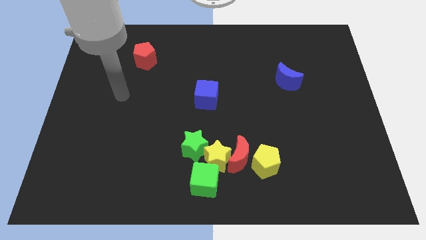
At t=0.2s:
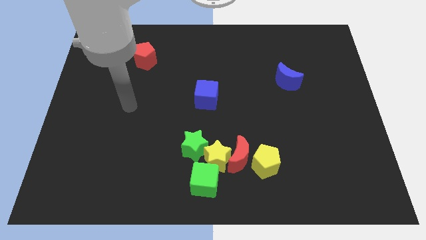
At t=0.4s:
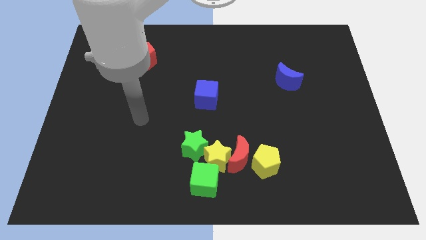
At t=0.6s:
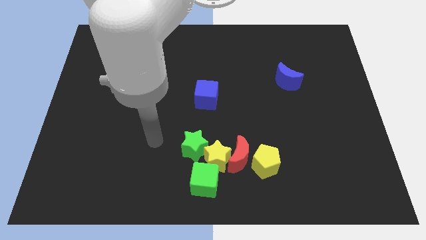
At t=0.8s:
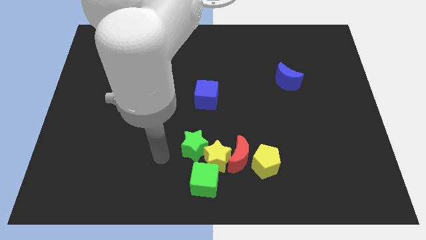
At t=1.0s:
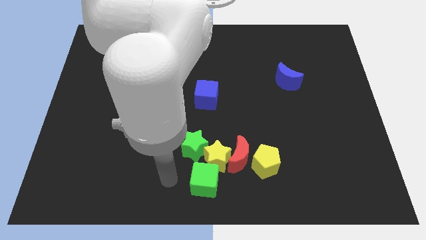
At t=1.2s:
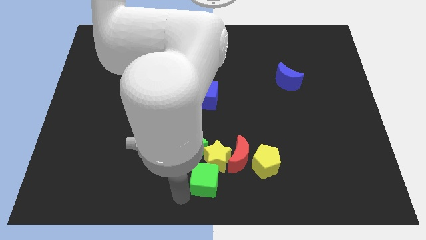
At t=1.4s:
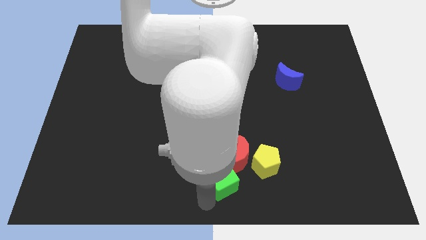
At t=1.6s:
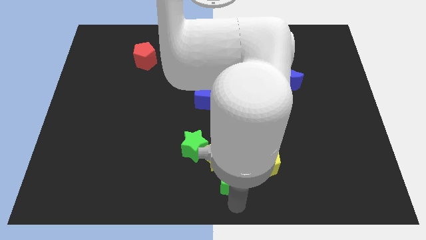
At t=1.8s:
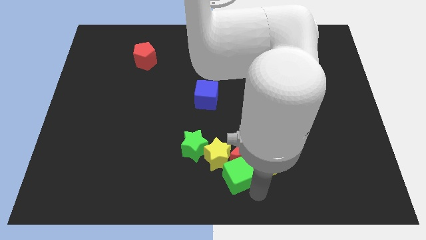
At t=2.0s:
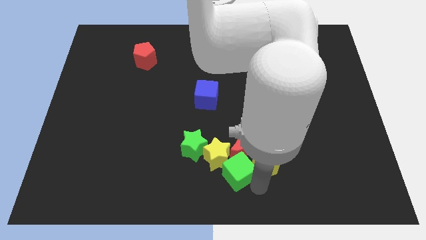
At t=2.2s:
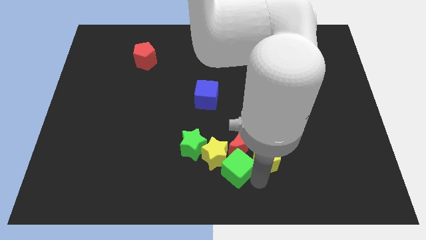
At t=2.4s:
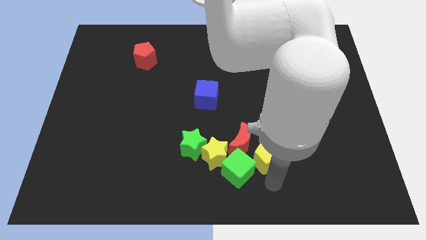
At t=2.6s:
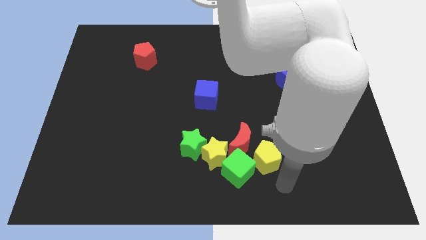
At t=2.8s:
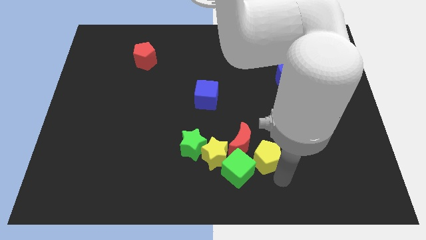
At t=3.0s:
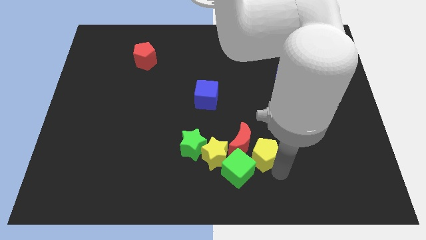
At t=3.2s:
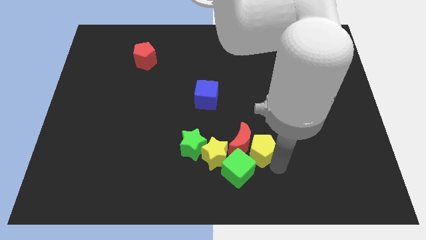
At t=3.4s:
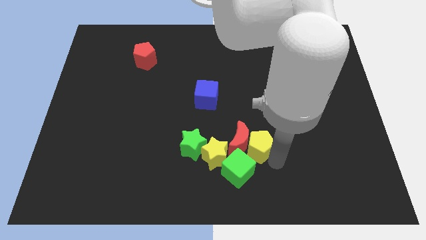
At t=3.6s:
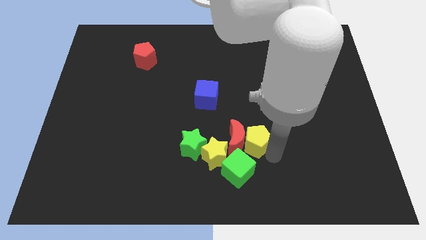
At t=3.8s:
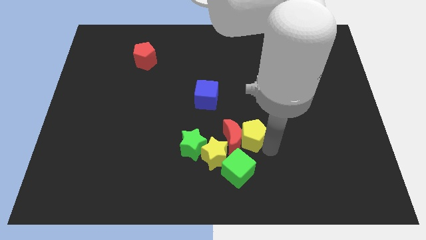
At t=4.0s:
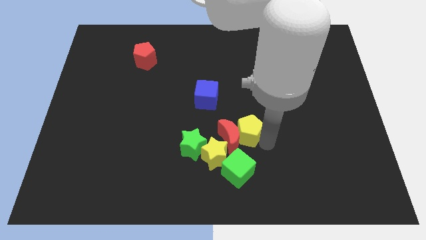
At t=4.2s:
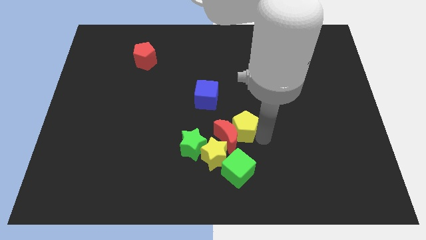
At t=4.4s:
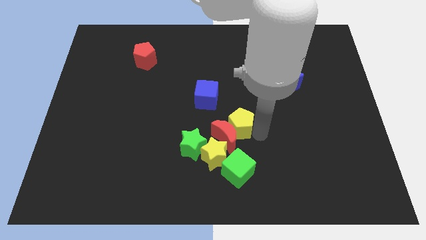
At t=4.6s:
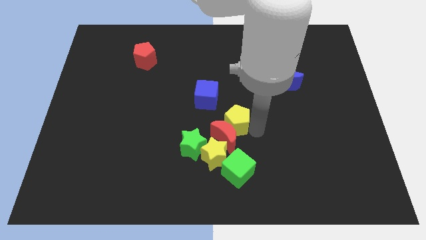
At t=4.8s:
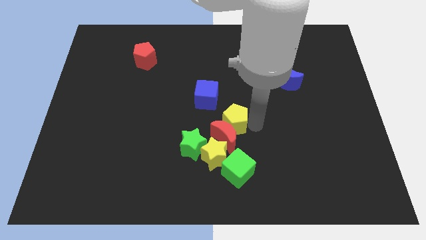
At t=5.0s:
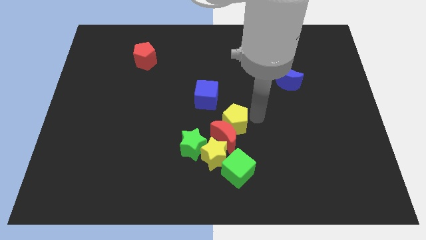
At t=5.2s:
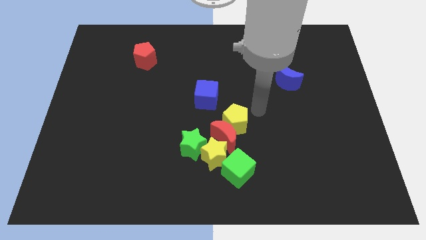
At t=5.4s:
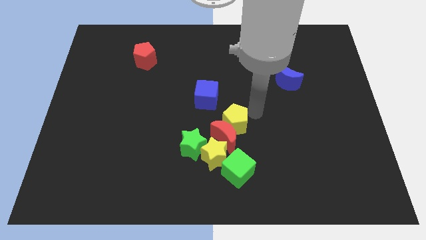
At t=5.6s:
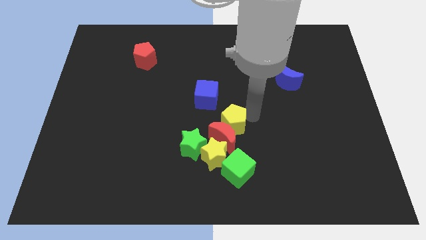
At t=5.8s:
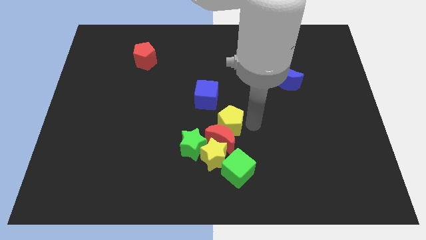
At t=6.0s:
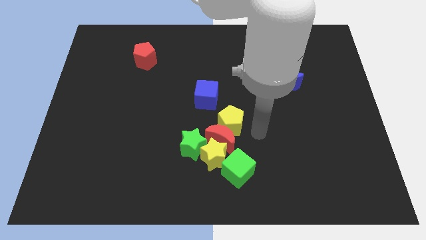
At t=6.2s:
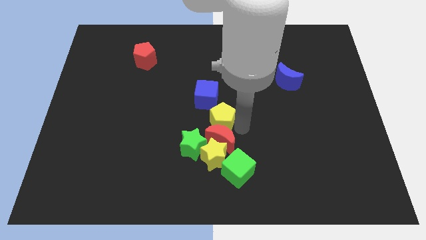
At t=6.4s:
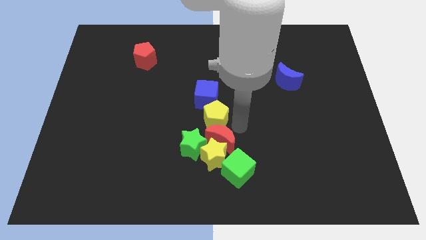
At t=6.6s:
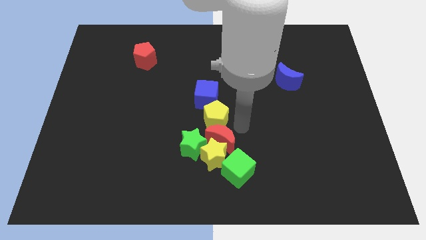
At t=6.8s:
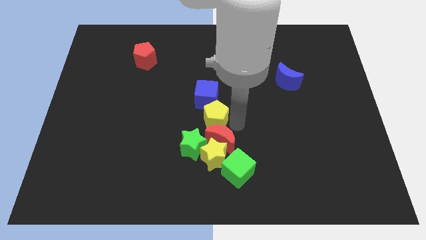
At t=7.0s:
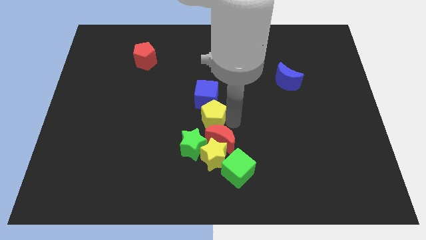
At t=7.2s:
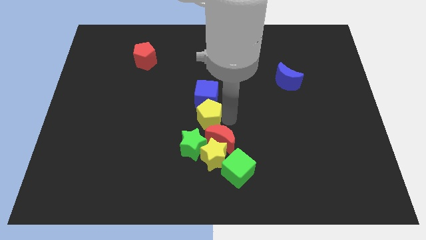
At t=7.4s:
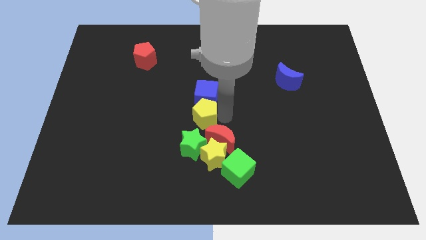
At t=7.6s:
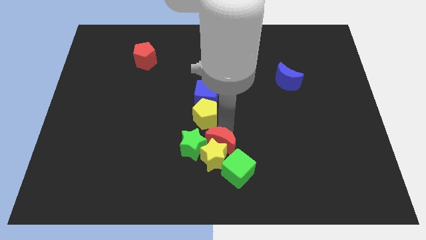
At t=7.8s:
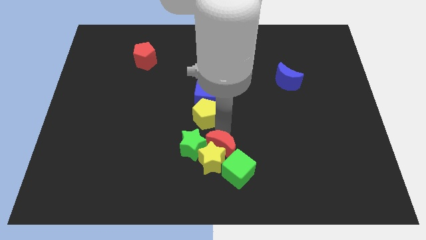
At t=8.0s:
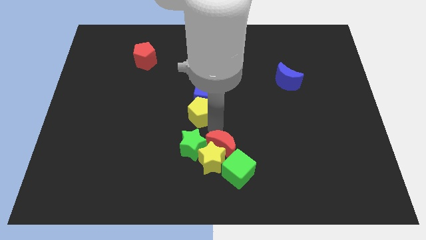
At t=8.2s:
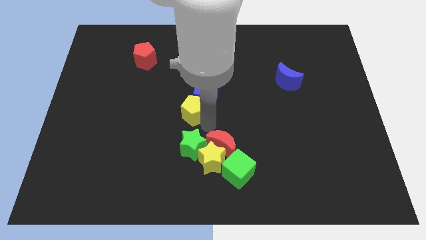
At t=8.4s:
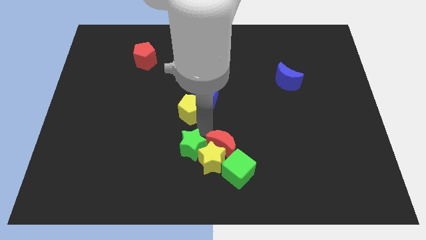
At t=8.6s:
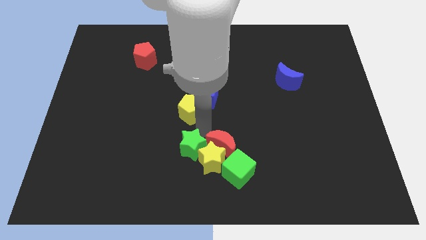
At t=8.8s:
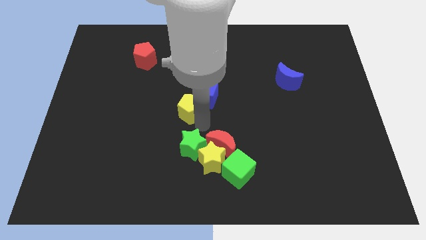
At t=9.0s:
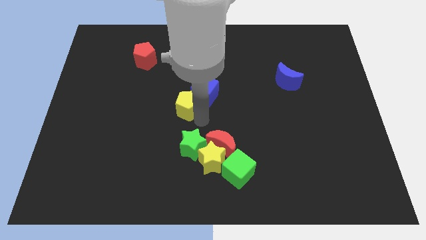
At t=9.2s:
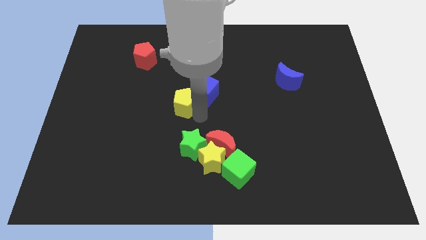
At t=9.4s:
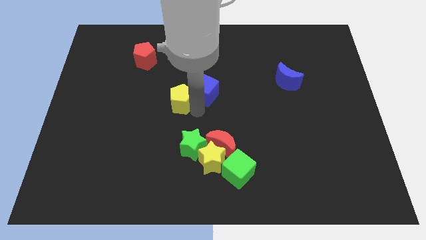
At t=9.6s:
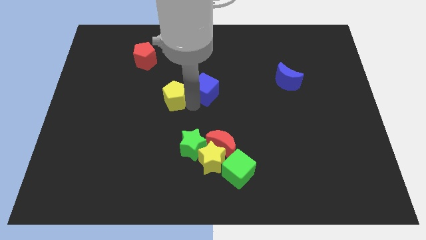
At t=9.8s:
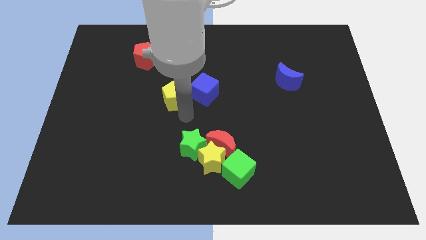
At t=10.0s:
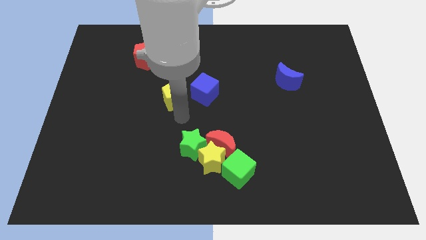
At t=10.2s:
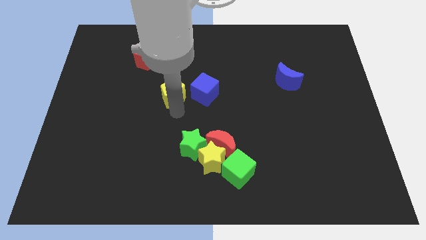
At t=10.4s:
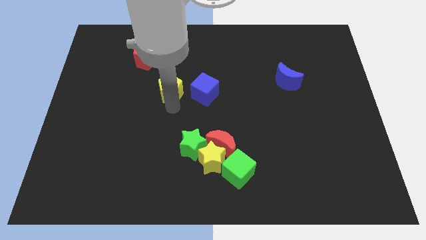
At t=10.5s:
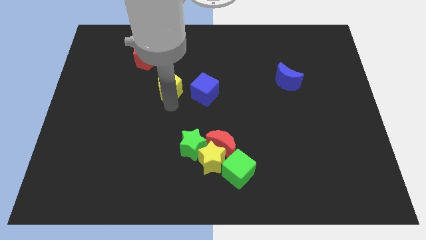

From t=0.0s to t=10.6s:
move the yellow pentagon diagonally down and to the right of the red pentagon

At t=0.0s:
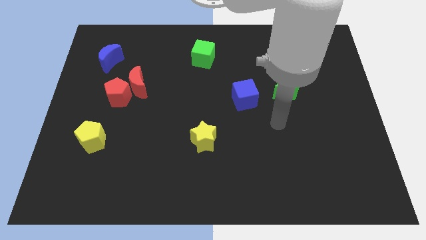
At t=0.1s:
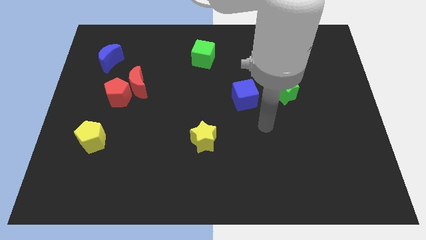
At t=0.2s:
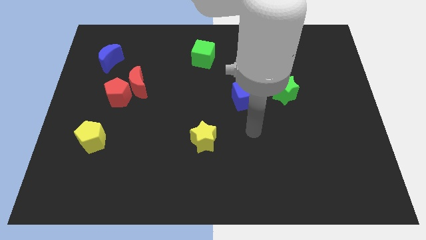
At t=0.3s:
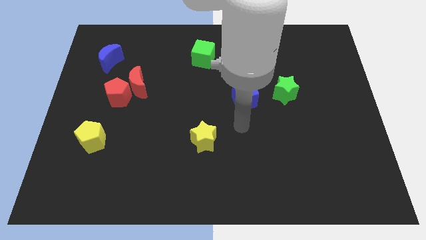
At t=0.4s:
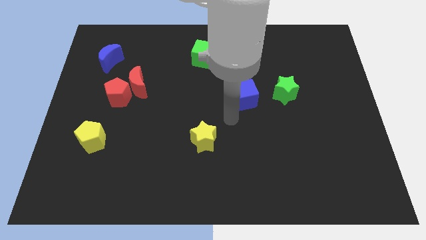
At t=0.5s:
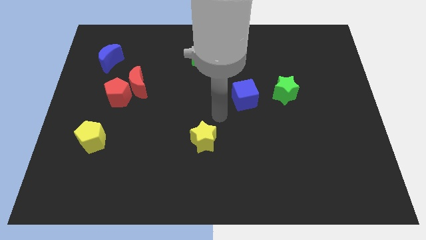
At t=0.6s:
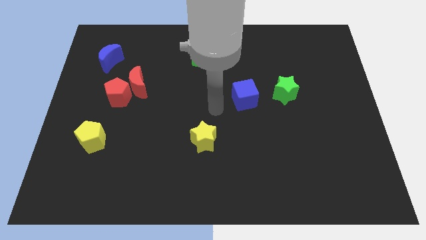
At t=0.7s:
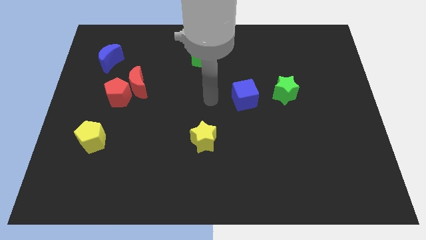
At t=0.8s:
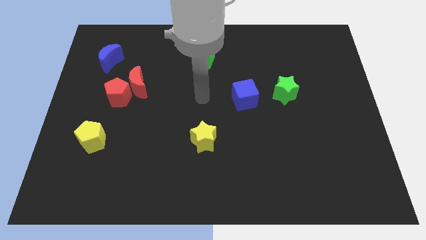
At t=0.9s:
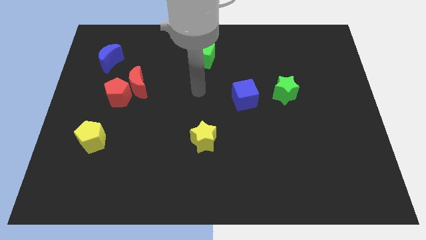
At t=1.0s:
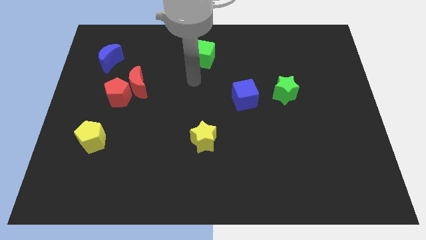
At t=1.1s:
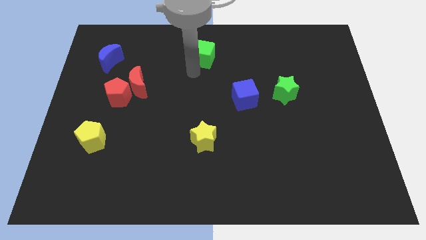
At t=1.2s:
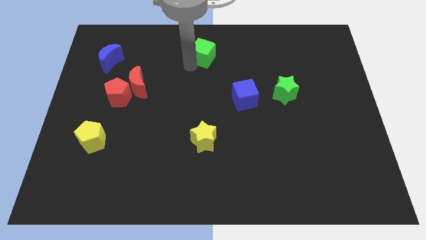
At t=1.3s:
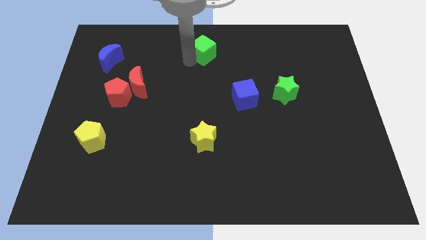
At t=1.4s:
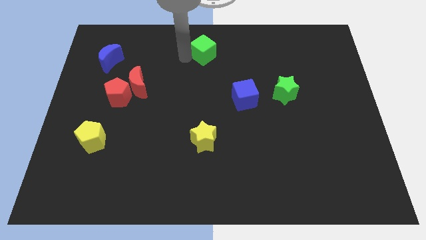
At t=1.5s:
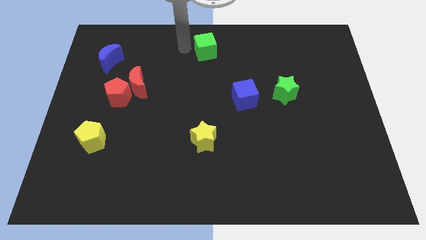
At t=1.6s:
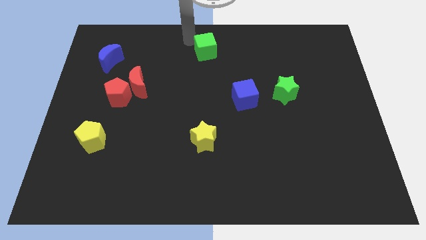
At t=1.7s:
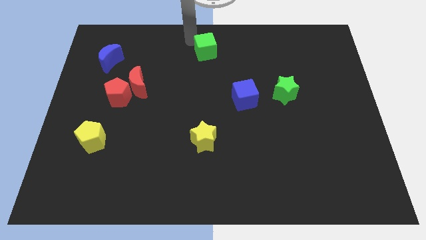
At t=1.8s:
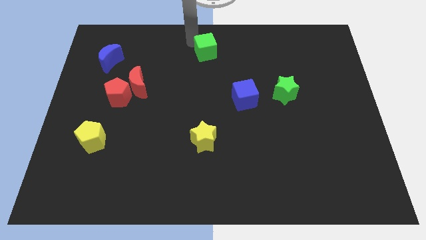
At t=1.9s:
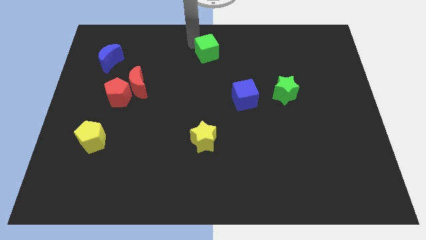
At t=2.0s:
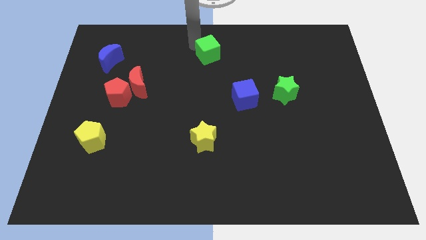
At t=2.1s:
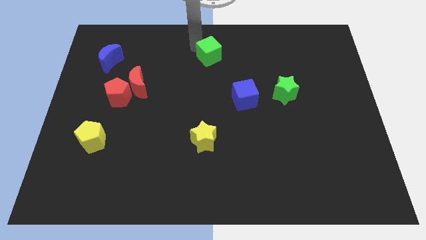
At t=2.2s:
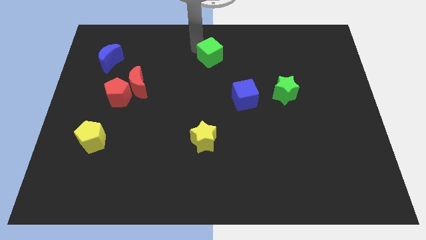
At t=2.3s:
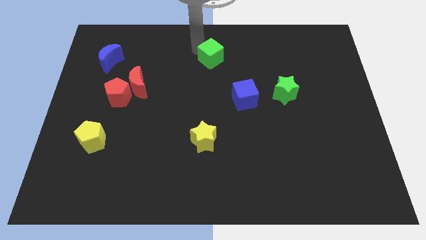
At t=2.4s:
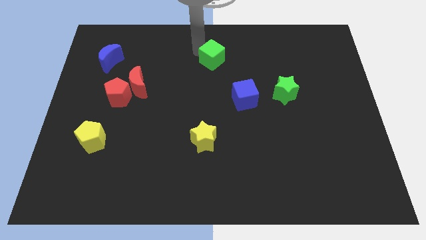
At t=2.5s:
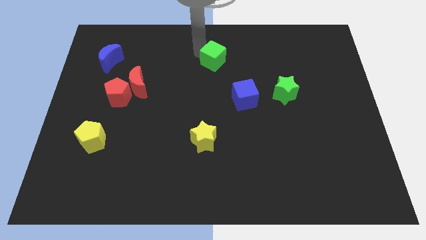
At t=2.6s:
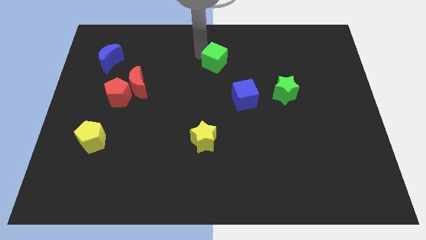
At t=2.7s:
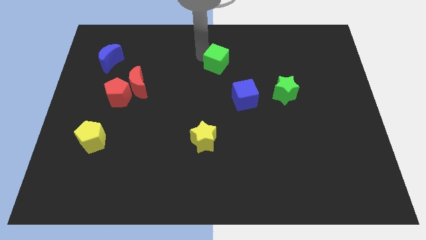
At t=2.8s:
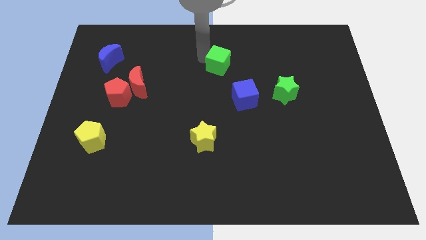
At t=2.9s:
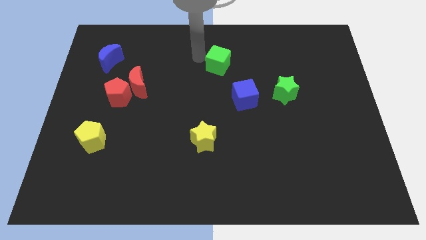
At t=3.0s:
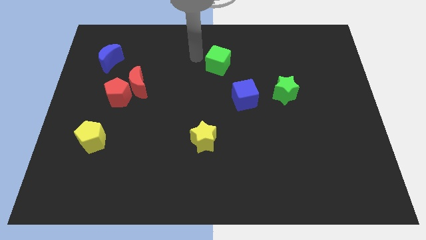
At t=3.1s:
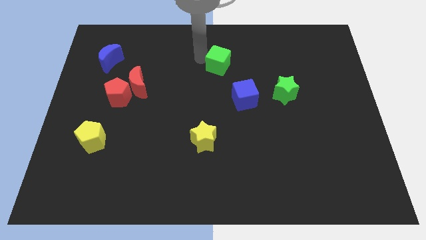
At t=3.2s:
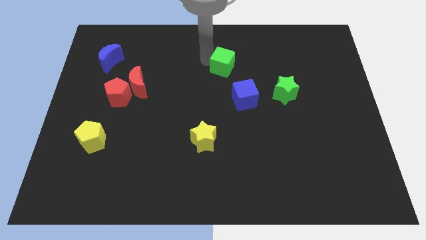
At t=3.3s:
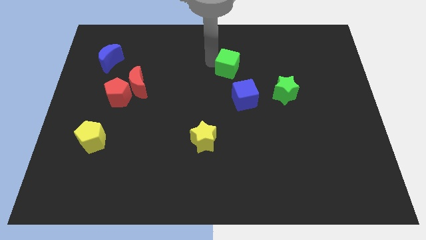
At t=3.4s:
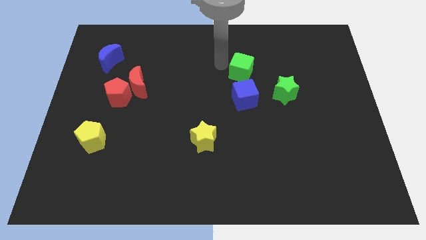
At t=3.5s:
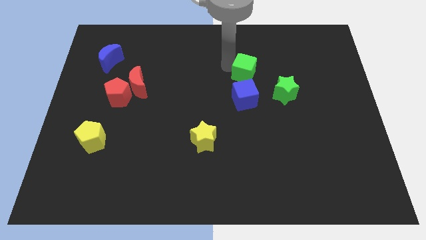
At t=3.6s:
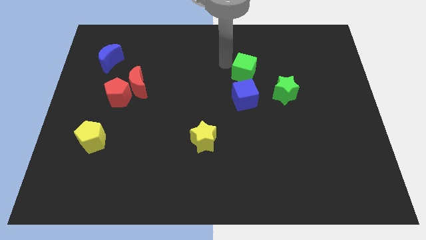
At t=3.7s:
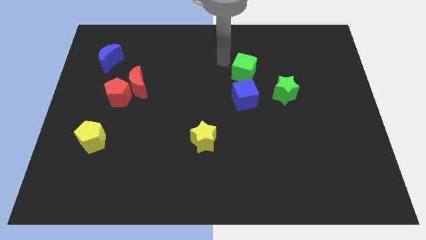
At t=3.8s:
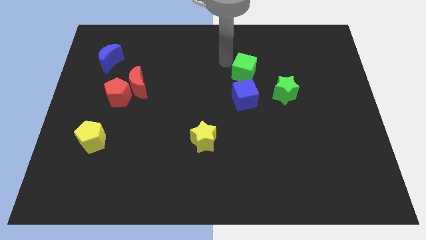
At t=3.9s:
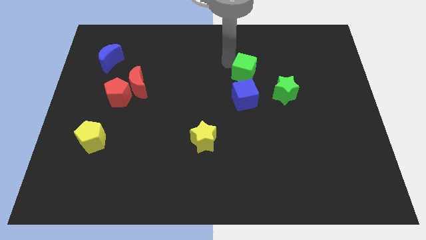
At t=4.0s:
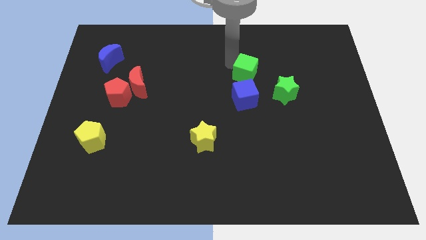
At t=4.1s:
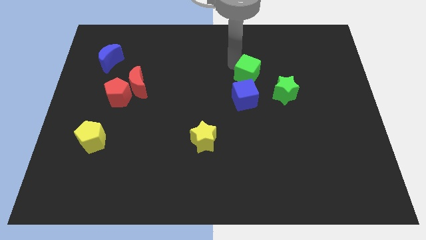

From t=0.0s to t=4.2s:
slide the green cube diagonally up and to the right of the blue cube
